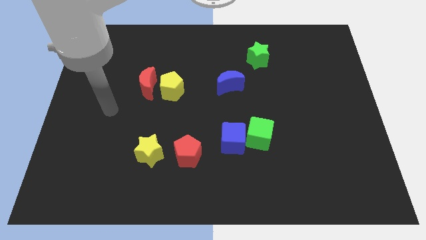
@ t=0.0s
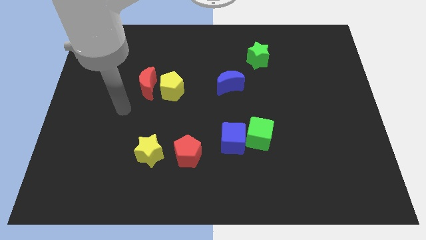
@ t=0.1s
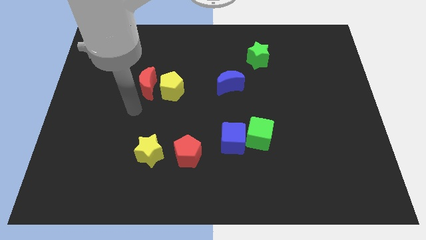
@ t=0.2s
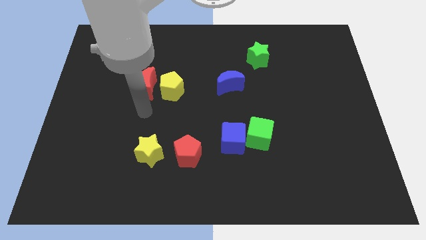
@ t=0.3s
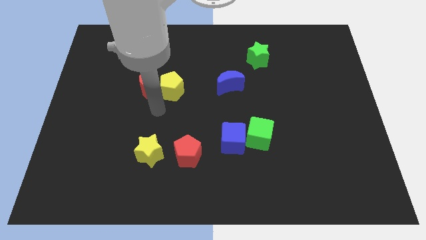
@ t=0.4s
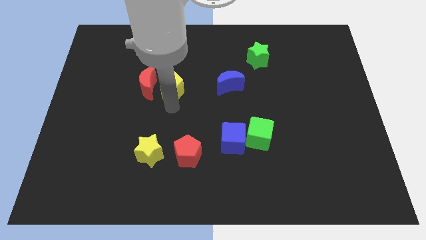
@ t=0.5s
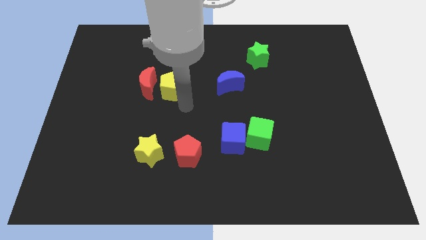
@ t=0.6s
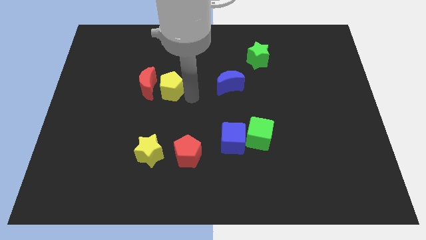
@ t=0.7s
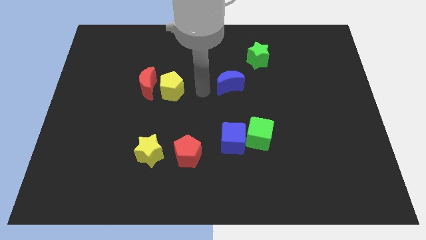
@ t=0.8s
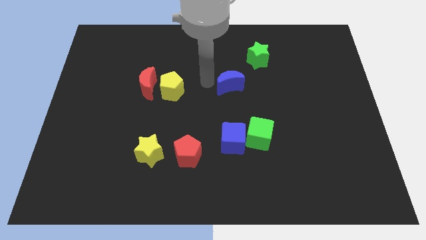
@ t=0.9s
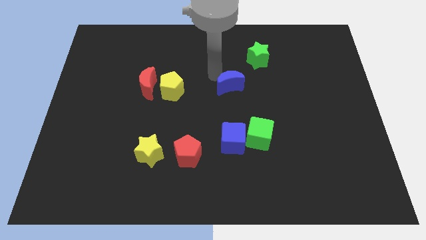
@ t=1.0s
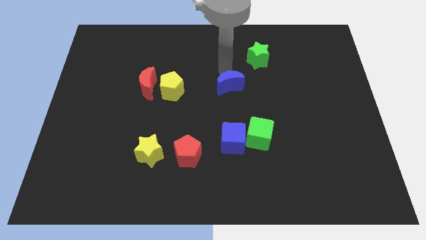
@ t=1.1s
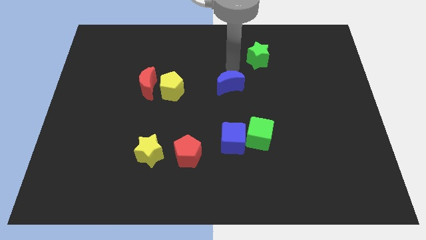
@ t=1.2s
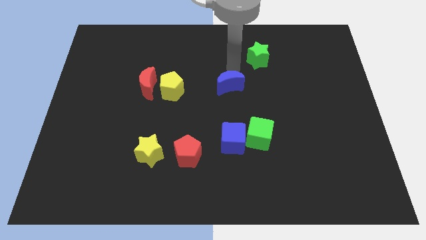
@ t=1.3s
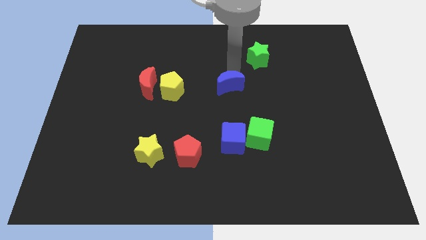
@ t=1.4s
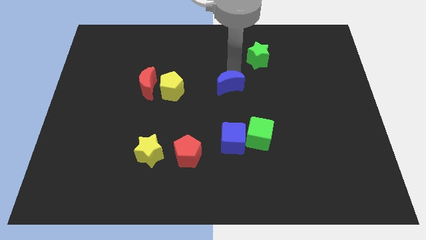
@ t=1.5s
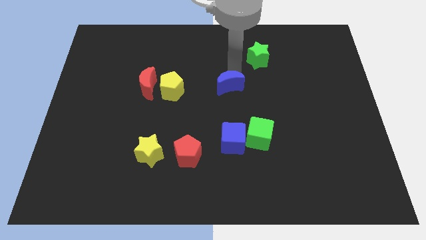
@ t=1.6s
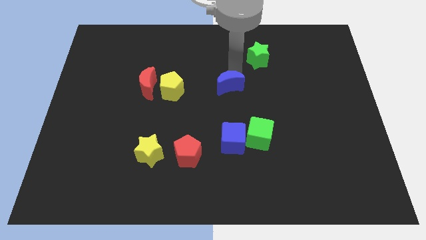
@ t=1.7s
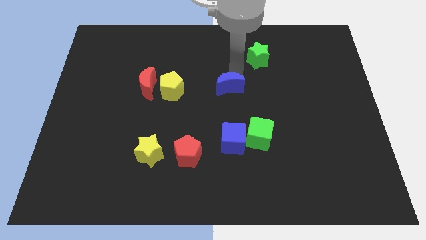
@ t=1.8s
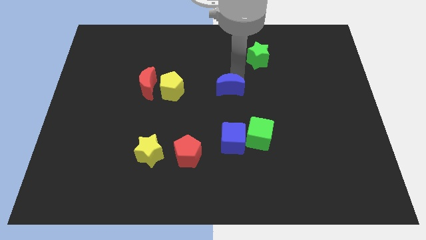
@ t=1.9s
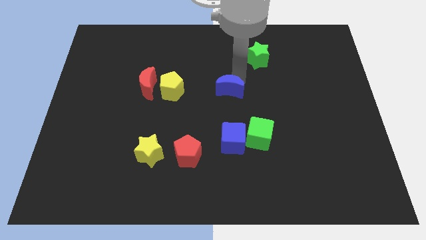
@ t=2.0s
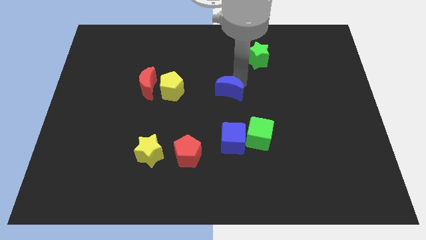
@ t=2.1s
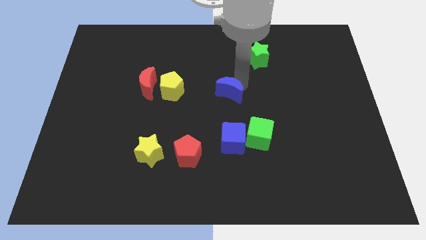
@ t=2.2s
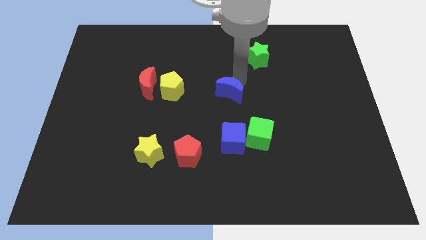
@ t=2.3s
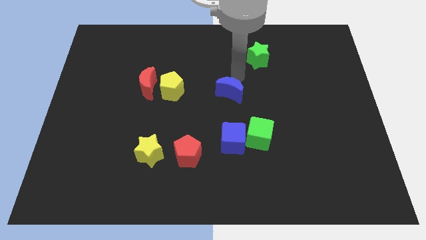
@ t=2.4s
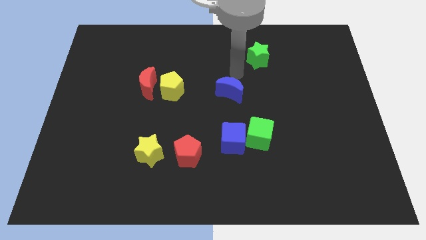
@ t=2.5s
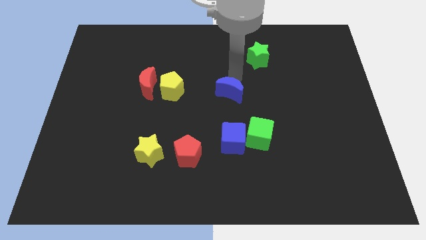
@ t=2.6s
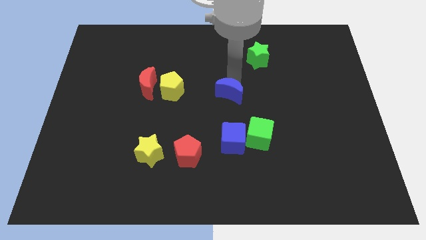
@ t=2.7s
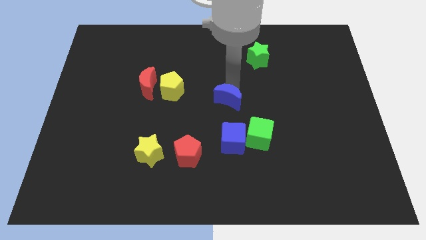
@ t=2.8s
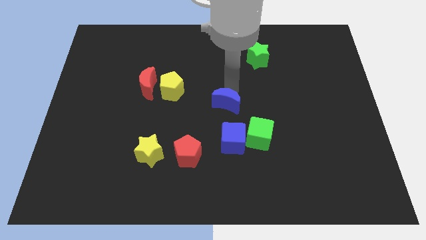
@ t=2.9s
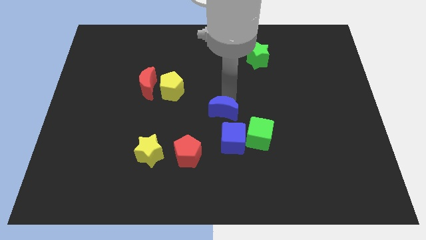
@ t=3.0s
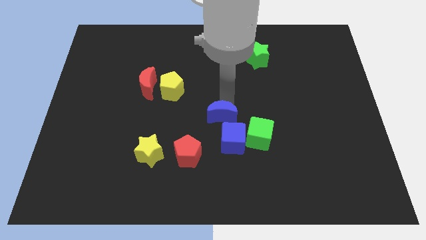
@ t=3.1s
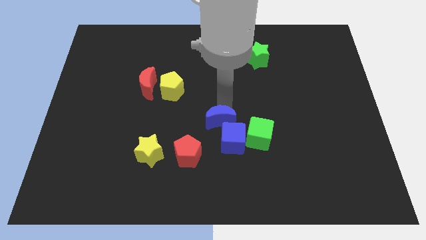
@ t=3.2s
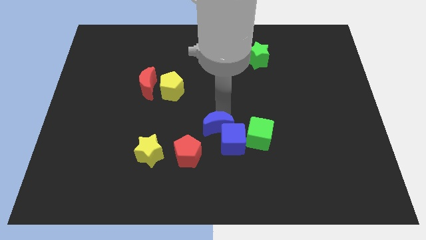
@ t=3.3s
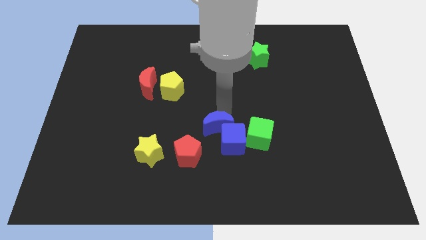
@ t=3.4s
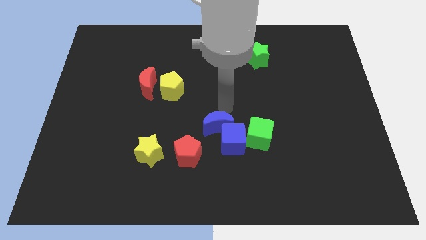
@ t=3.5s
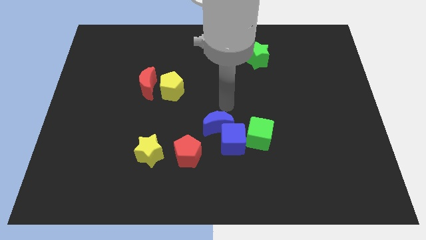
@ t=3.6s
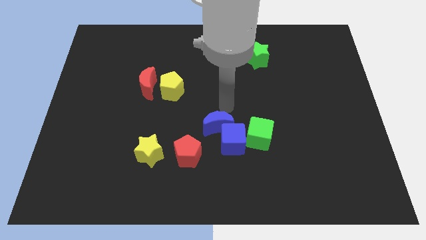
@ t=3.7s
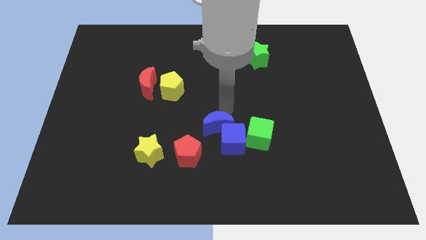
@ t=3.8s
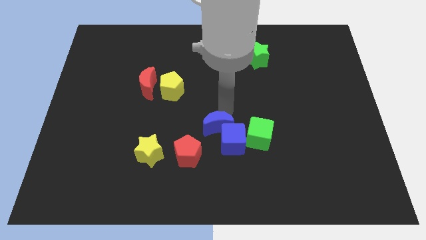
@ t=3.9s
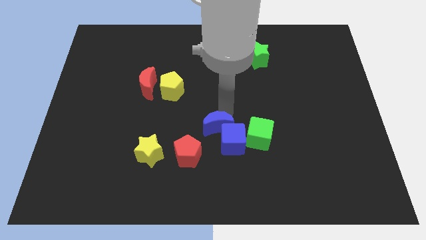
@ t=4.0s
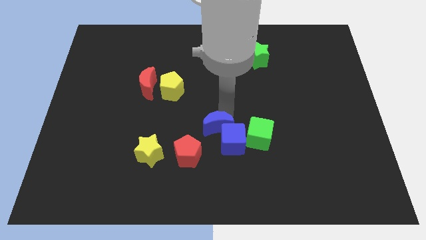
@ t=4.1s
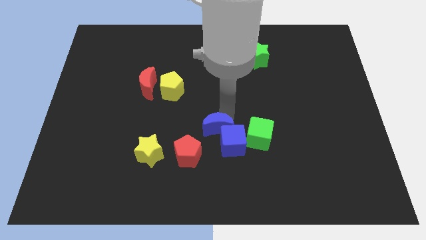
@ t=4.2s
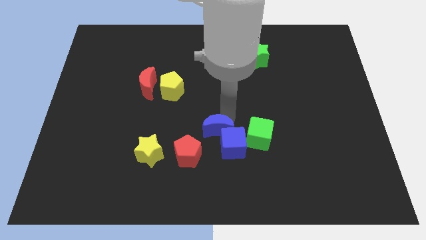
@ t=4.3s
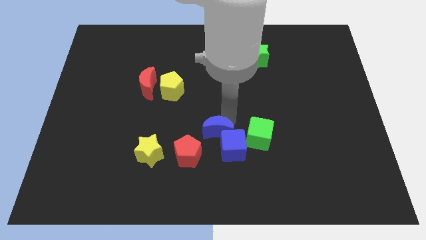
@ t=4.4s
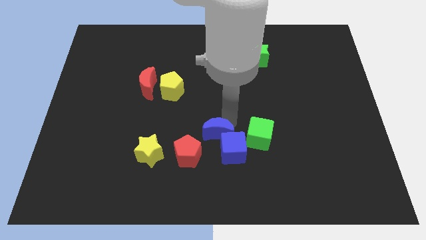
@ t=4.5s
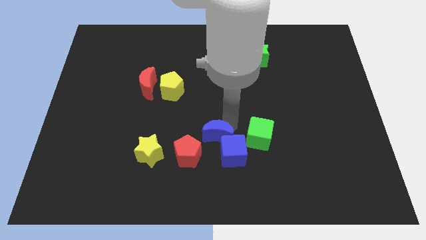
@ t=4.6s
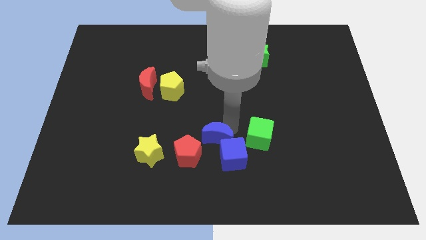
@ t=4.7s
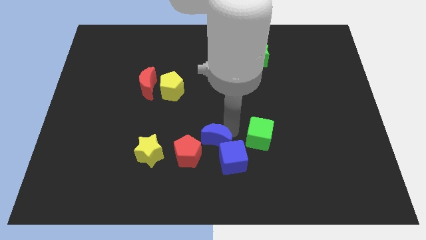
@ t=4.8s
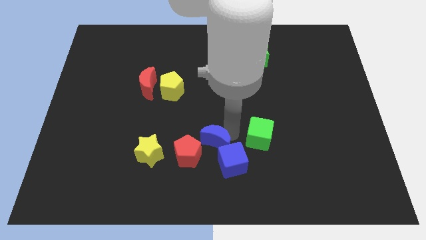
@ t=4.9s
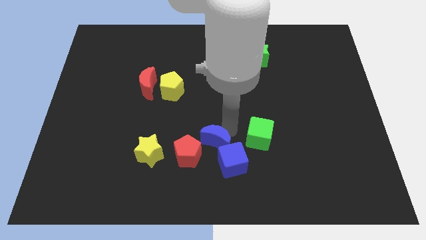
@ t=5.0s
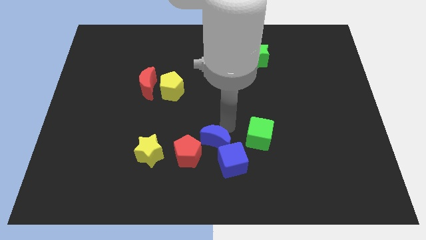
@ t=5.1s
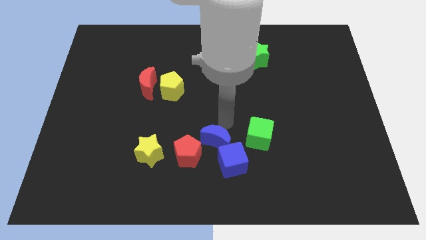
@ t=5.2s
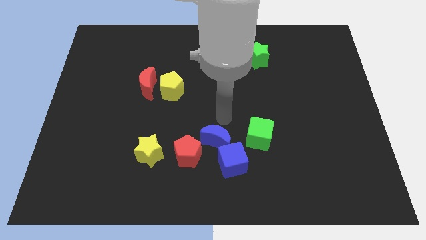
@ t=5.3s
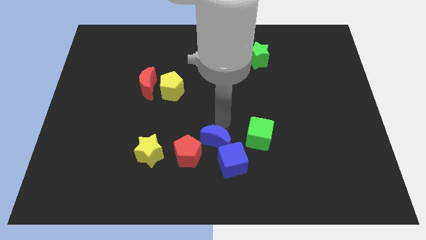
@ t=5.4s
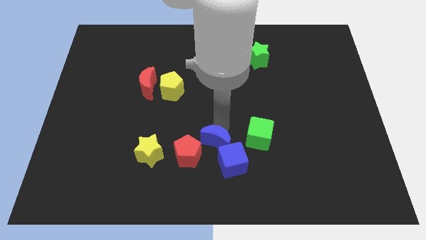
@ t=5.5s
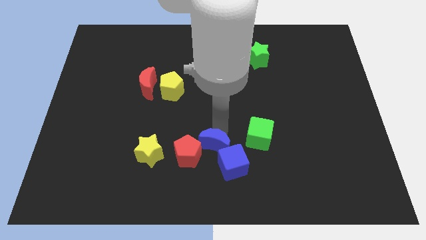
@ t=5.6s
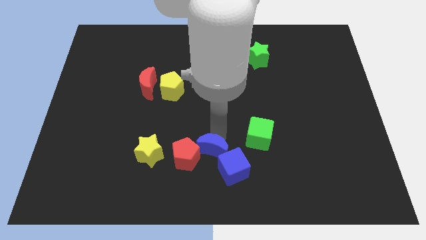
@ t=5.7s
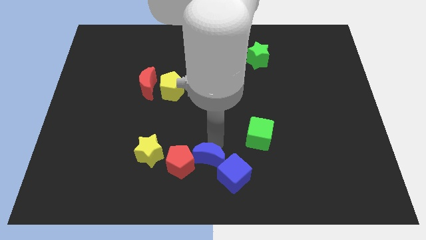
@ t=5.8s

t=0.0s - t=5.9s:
put the blue moon to the bottom
